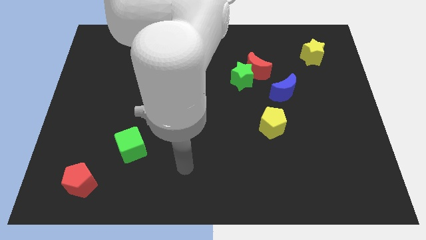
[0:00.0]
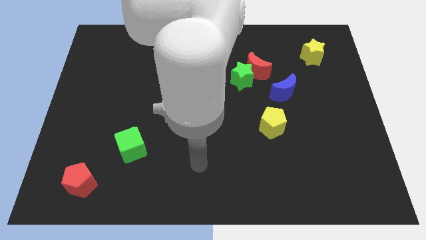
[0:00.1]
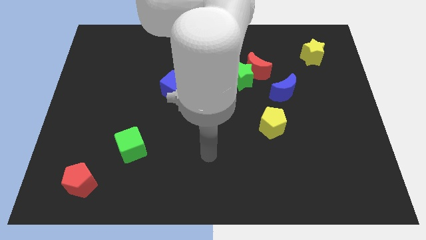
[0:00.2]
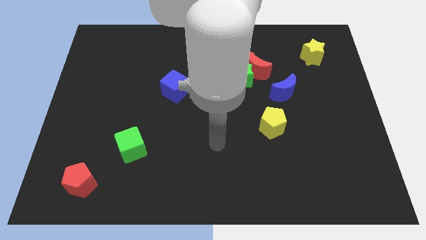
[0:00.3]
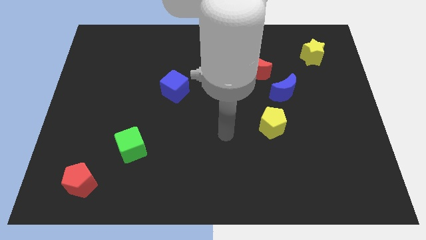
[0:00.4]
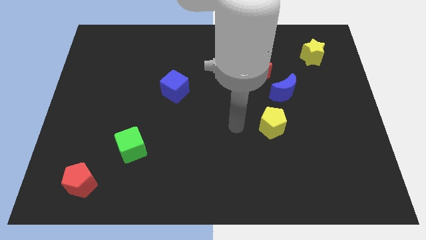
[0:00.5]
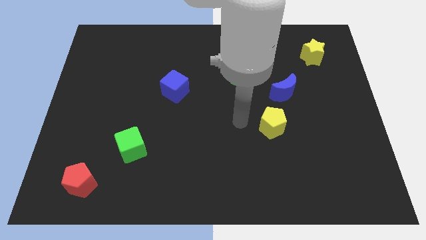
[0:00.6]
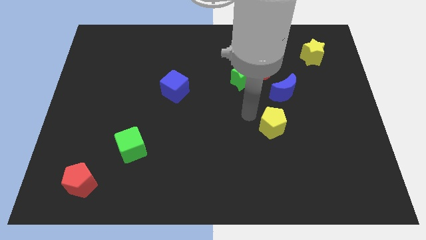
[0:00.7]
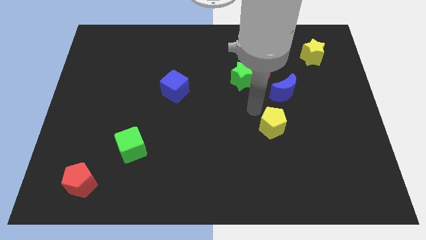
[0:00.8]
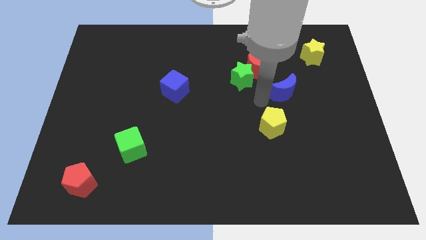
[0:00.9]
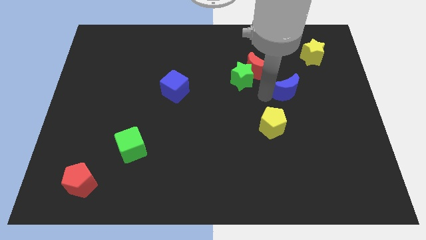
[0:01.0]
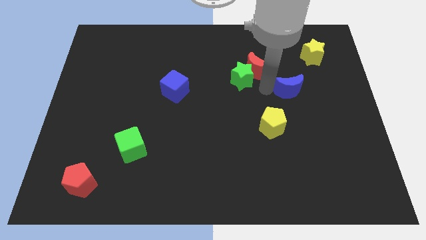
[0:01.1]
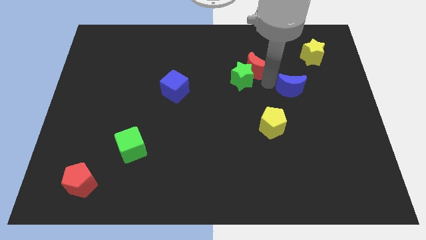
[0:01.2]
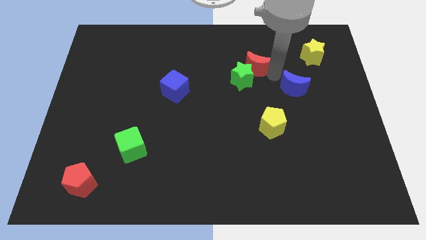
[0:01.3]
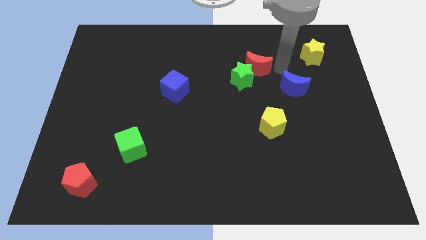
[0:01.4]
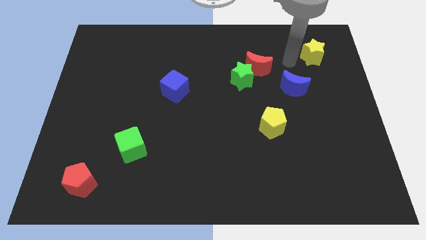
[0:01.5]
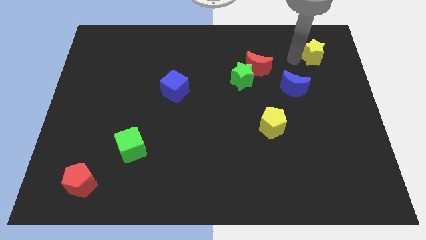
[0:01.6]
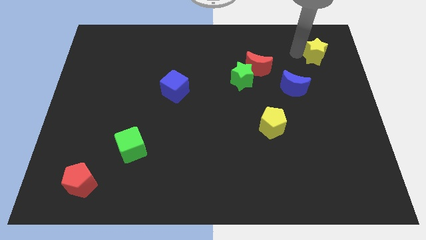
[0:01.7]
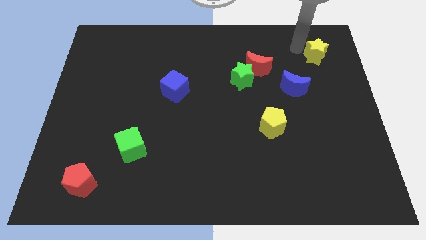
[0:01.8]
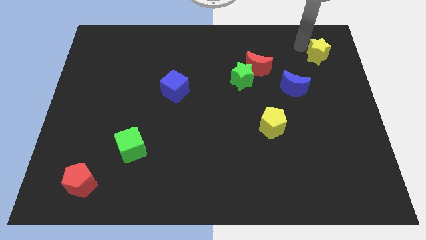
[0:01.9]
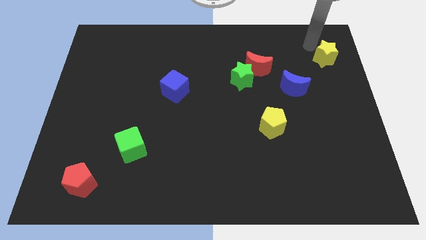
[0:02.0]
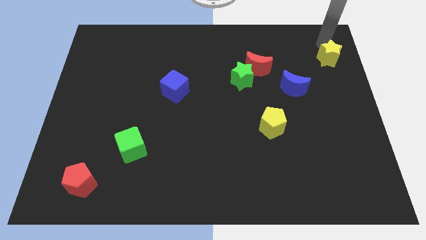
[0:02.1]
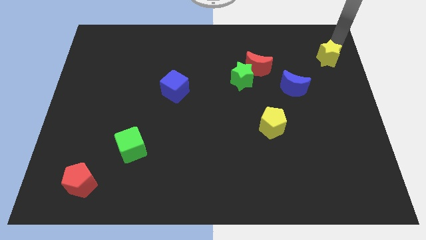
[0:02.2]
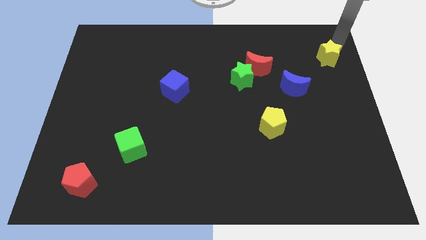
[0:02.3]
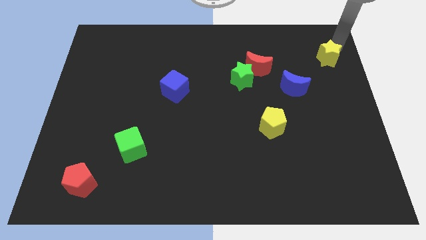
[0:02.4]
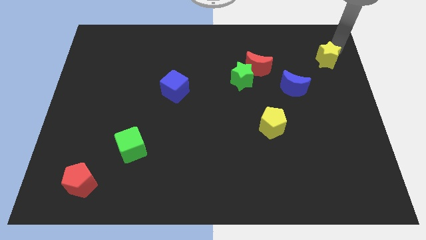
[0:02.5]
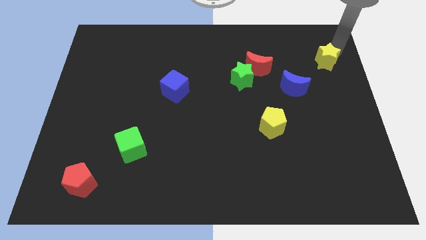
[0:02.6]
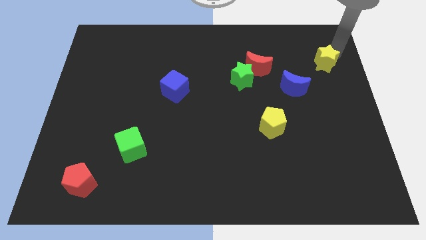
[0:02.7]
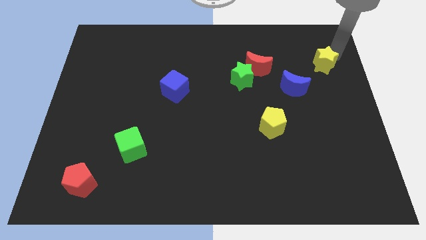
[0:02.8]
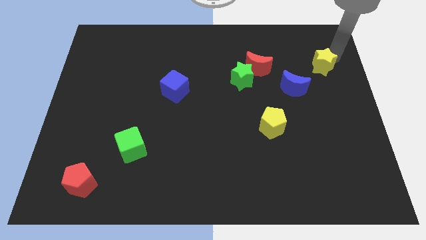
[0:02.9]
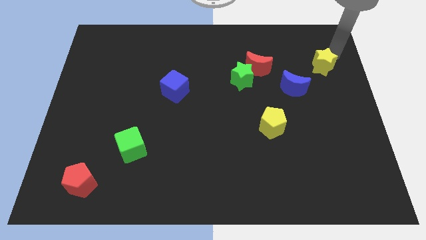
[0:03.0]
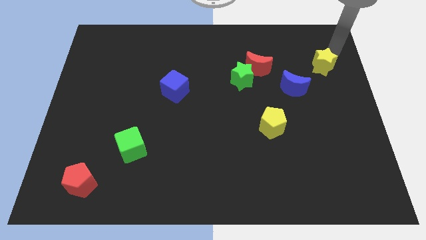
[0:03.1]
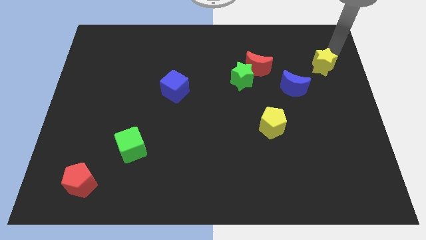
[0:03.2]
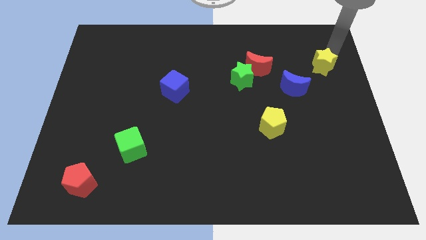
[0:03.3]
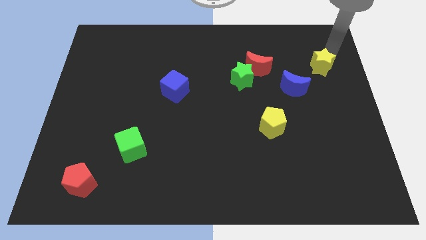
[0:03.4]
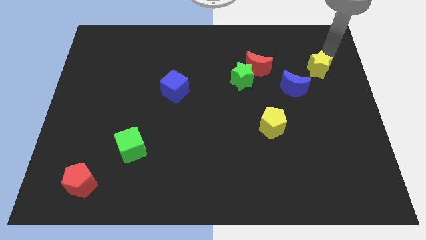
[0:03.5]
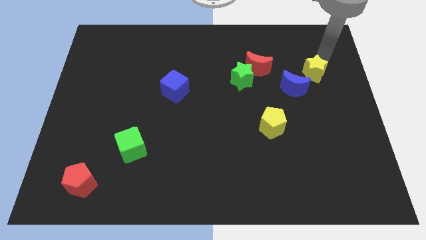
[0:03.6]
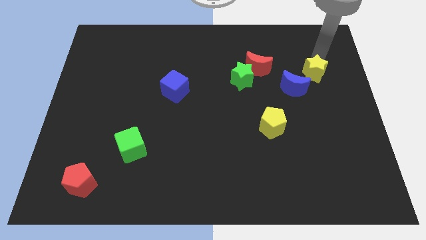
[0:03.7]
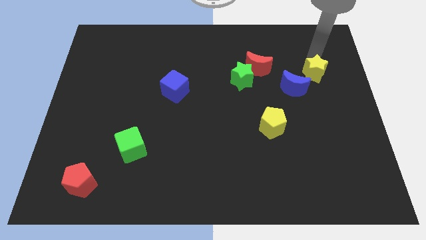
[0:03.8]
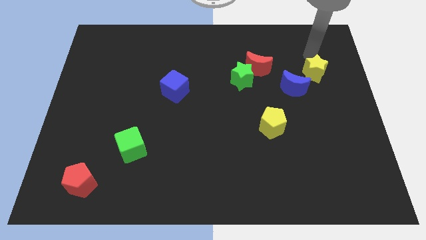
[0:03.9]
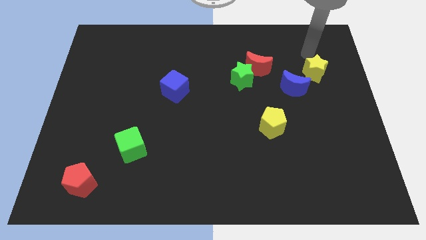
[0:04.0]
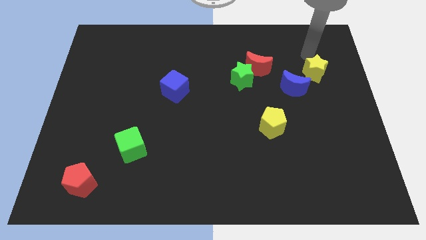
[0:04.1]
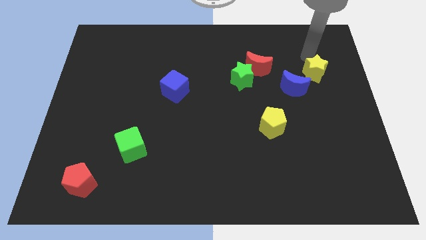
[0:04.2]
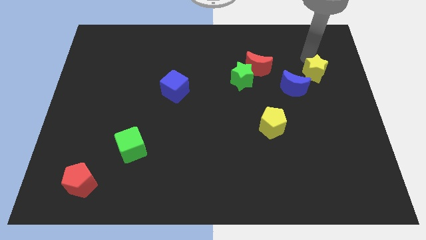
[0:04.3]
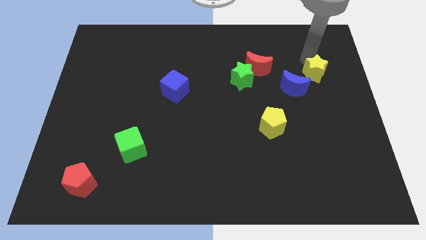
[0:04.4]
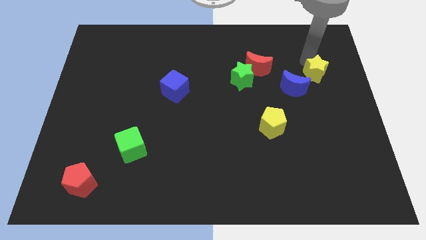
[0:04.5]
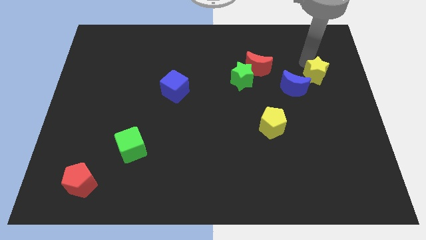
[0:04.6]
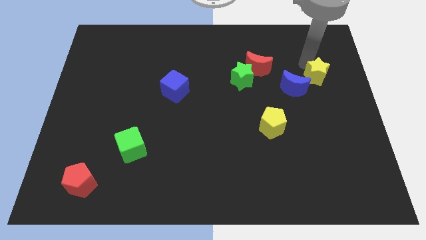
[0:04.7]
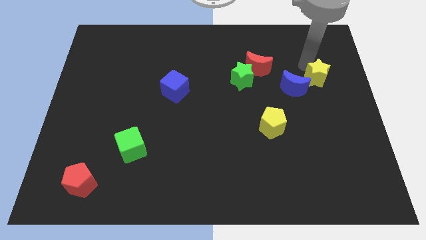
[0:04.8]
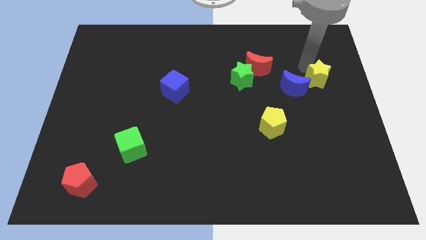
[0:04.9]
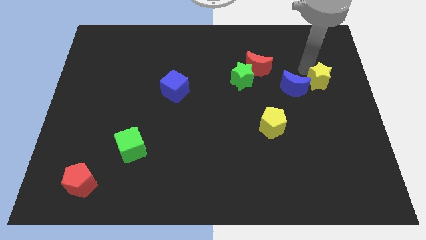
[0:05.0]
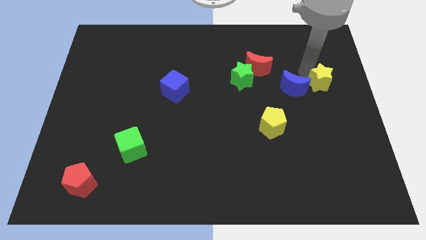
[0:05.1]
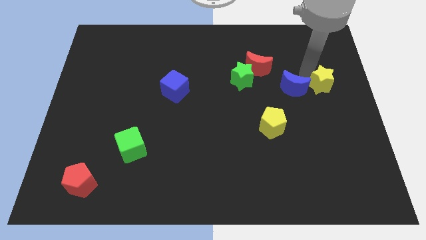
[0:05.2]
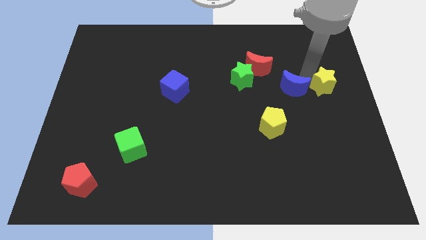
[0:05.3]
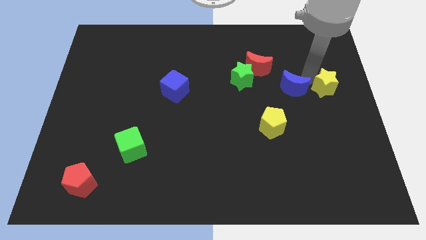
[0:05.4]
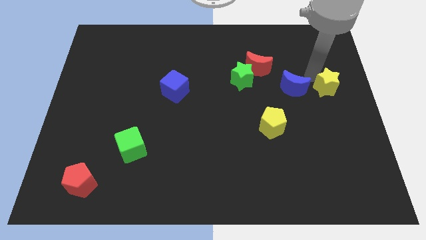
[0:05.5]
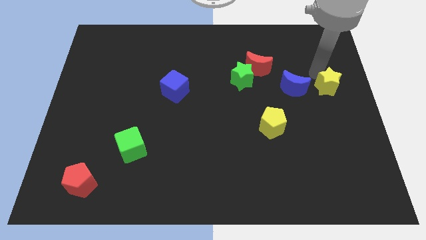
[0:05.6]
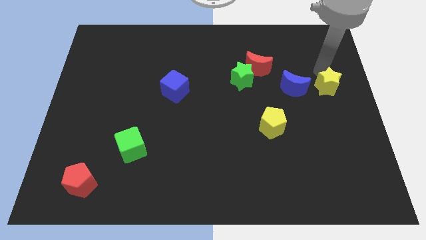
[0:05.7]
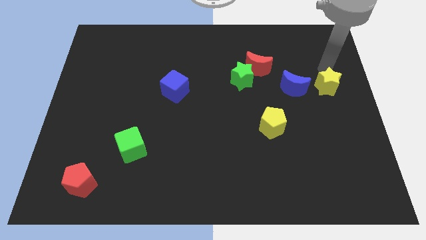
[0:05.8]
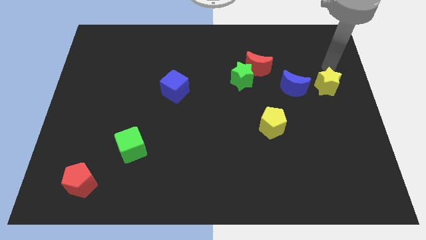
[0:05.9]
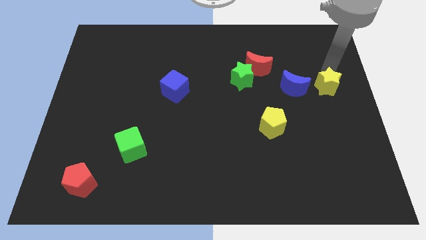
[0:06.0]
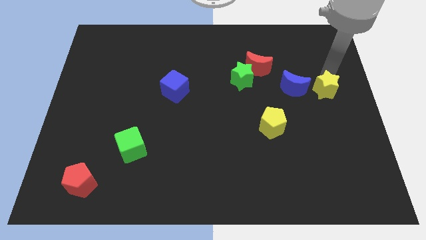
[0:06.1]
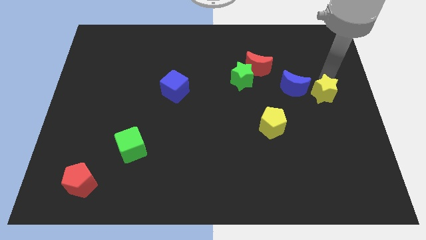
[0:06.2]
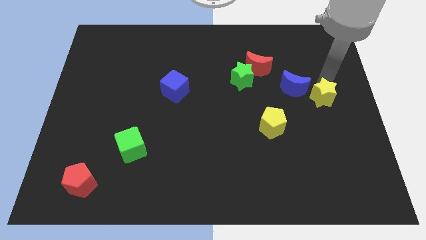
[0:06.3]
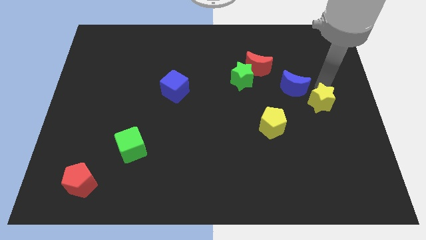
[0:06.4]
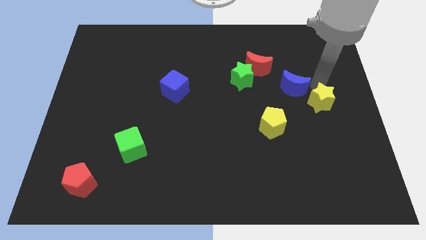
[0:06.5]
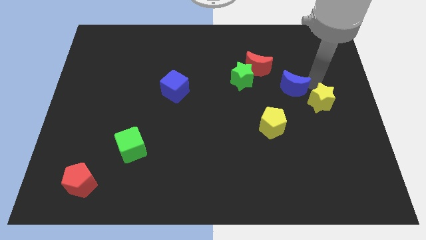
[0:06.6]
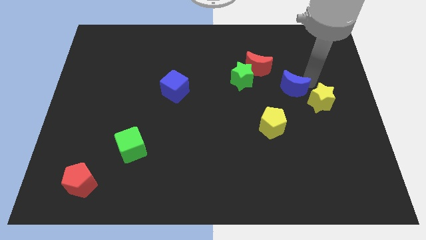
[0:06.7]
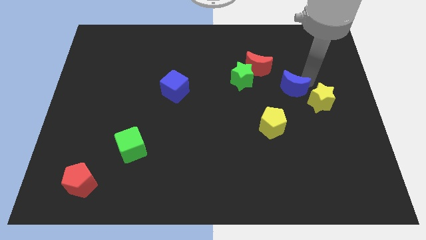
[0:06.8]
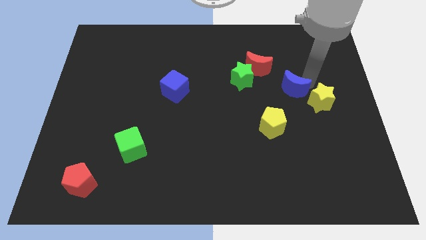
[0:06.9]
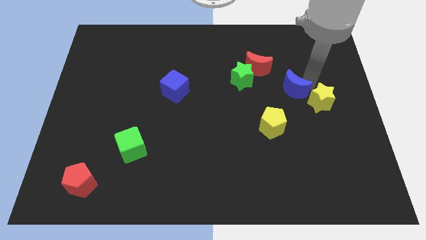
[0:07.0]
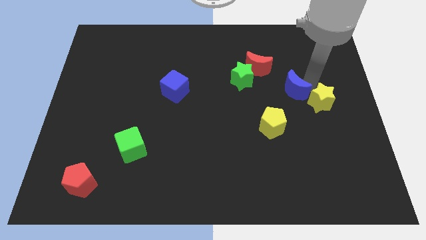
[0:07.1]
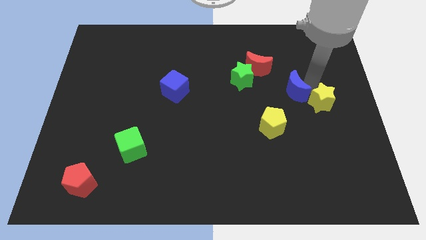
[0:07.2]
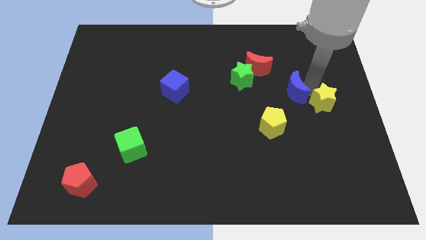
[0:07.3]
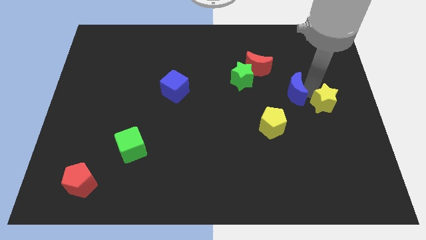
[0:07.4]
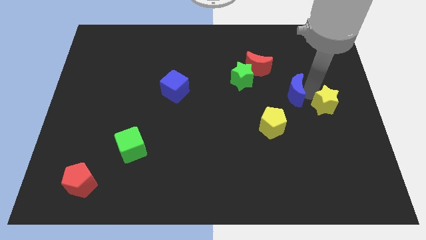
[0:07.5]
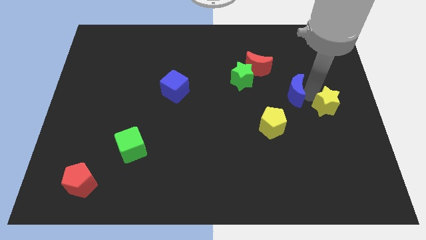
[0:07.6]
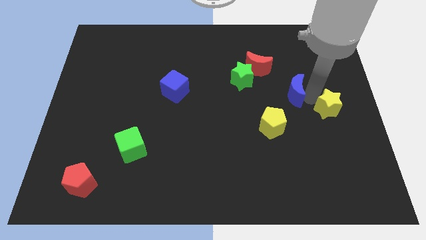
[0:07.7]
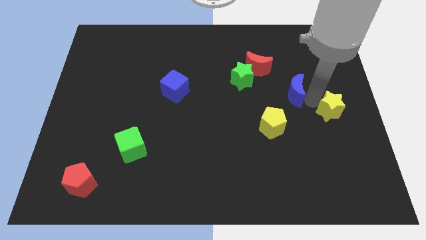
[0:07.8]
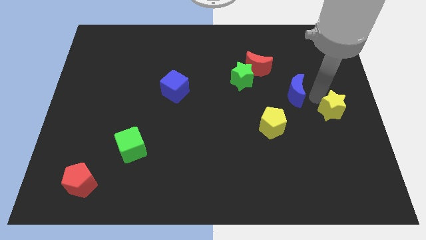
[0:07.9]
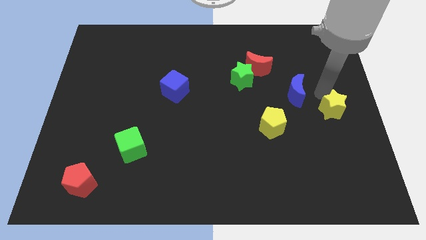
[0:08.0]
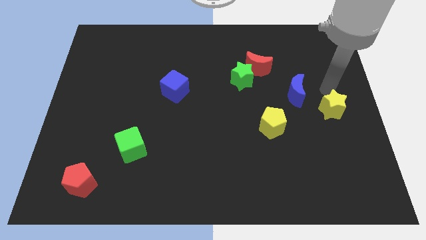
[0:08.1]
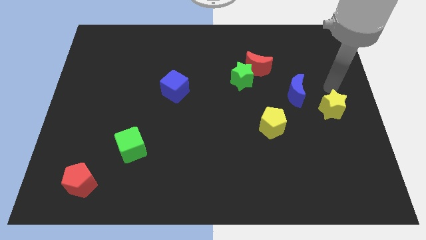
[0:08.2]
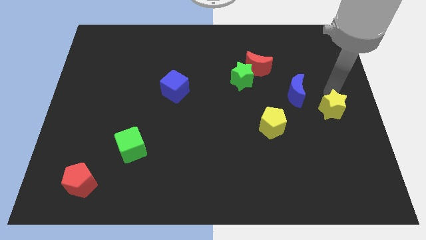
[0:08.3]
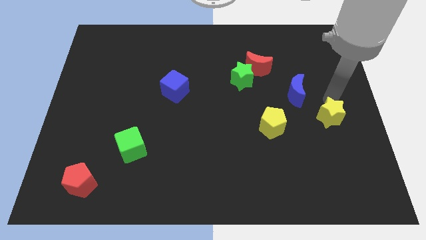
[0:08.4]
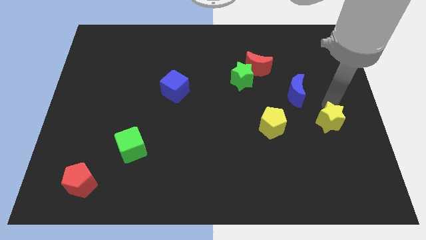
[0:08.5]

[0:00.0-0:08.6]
push the yellow star down
